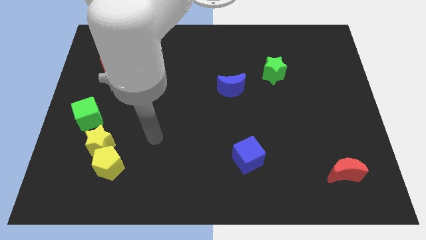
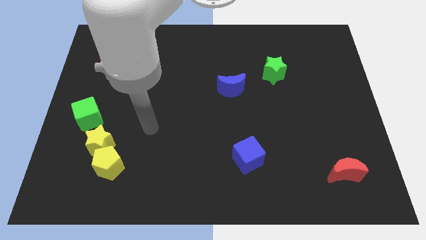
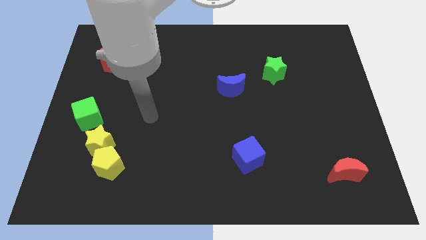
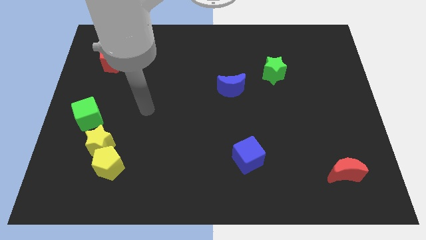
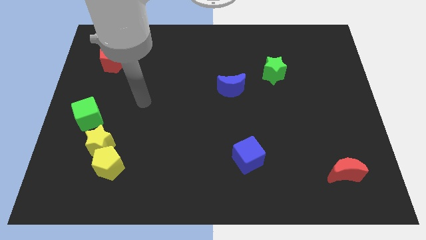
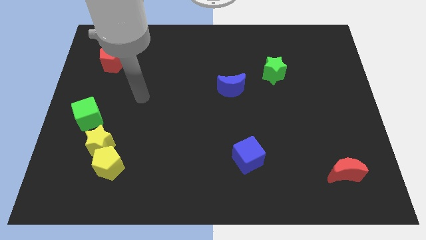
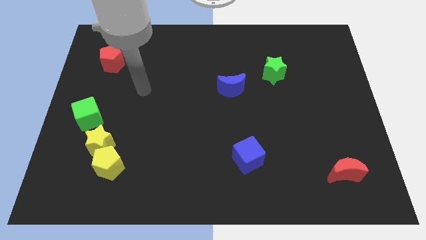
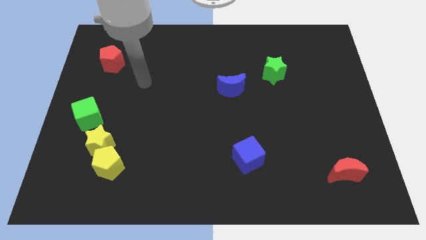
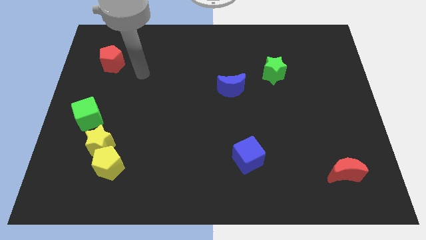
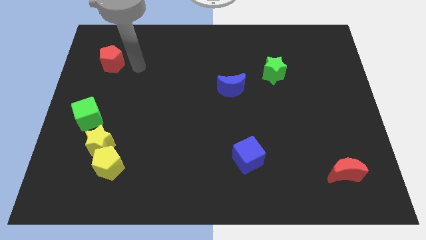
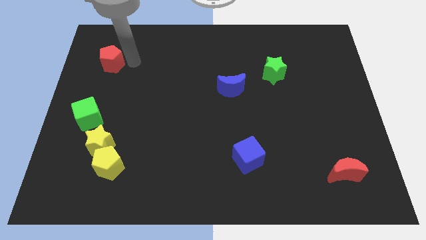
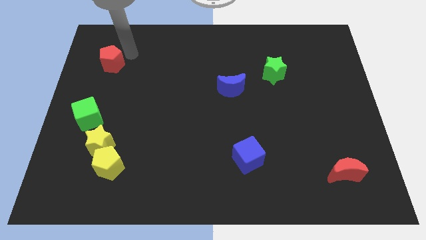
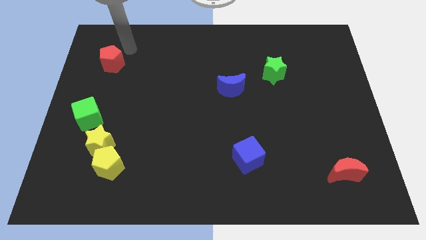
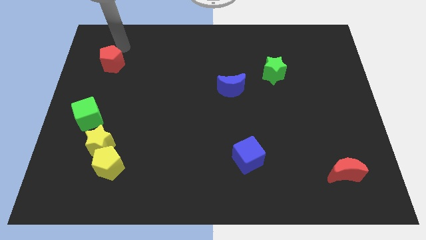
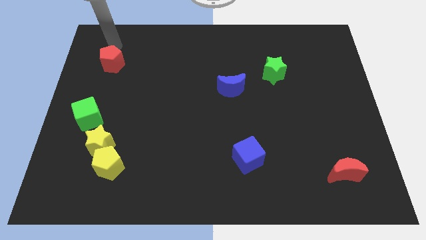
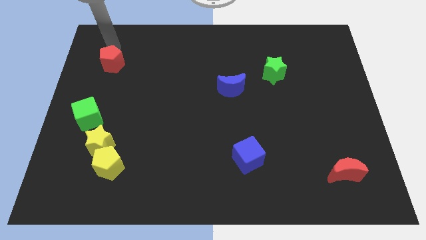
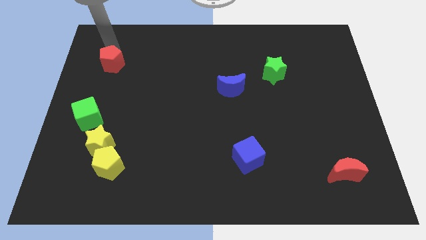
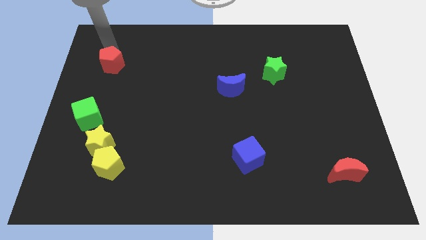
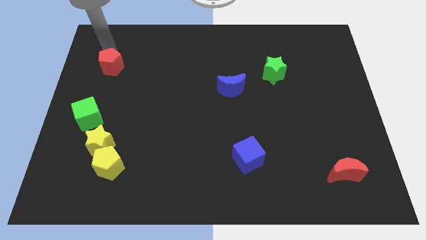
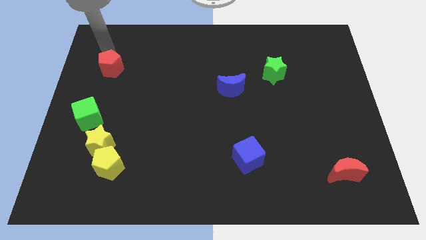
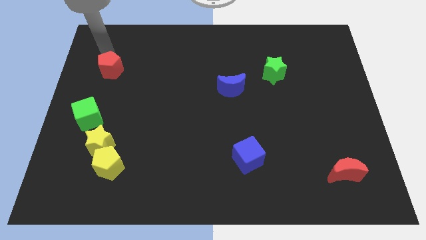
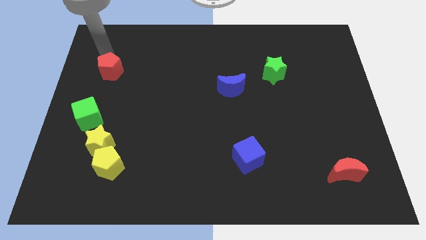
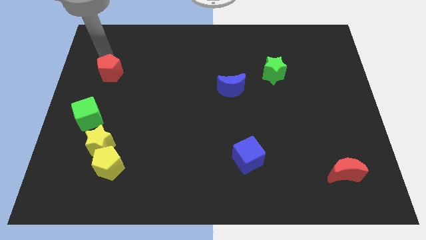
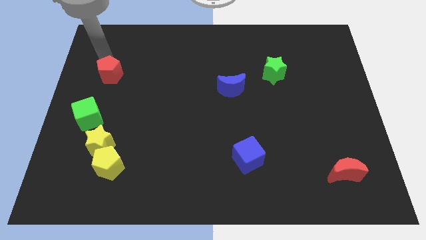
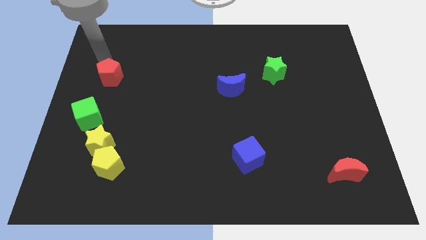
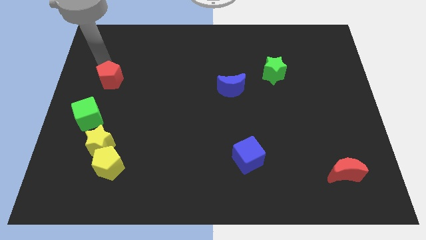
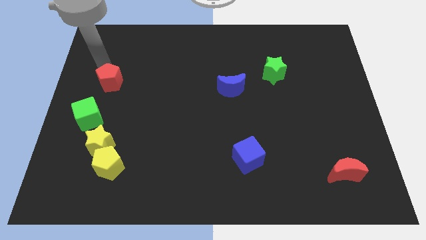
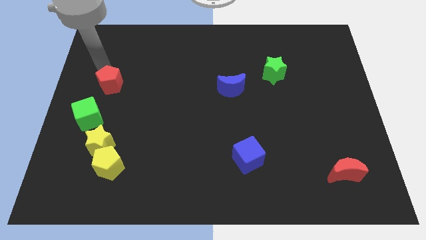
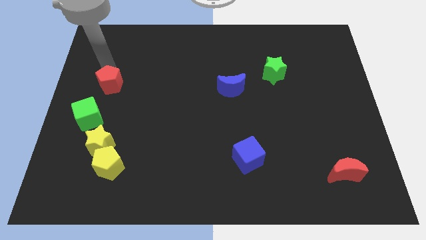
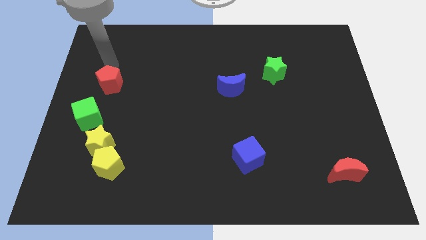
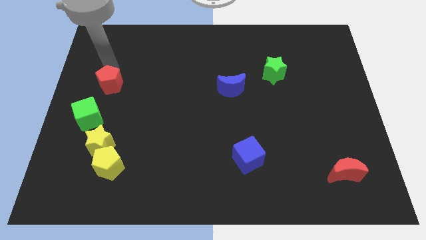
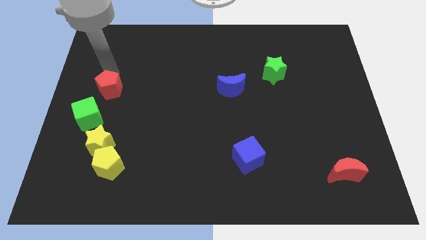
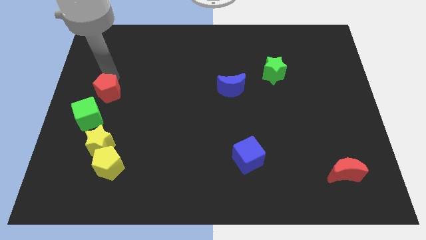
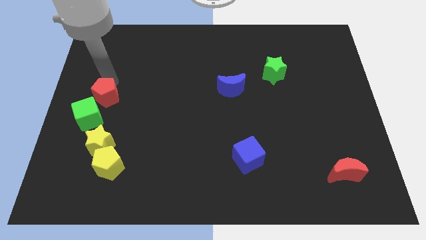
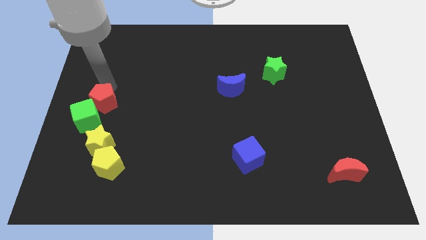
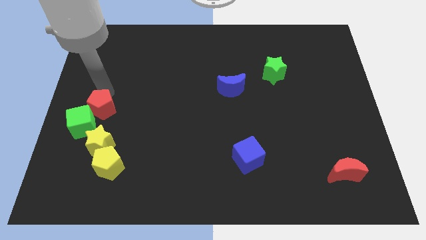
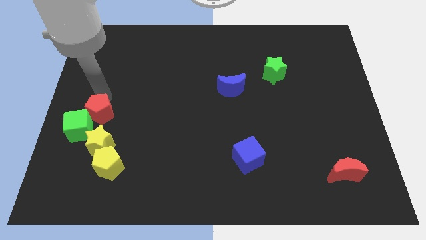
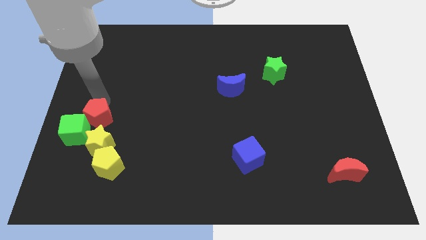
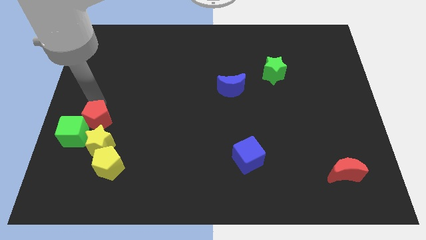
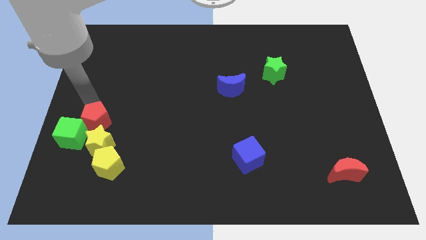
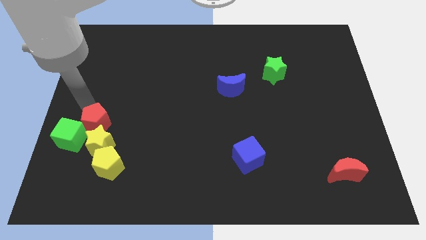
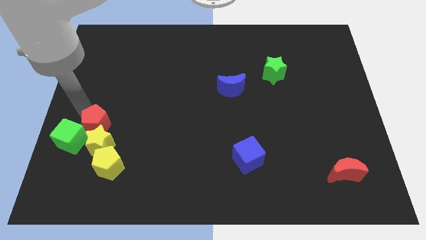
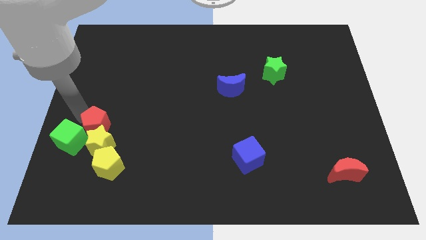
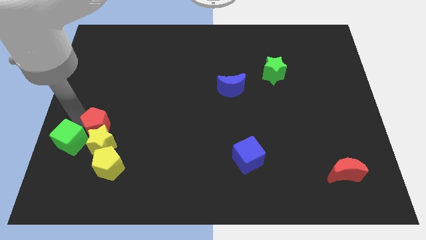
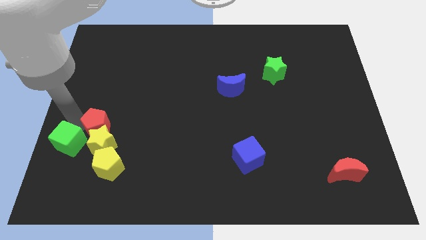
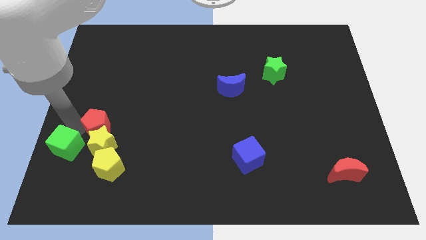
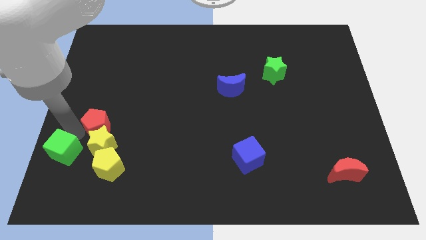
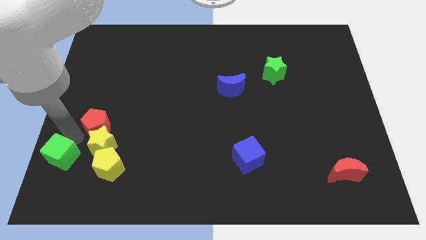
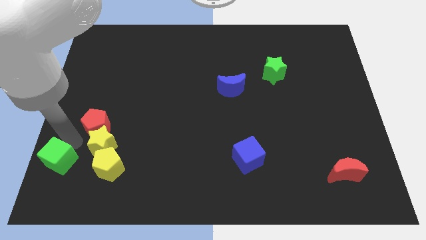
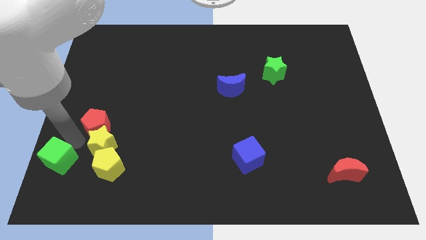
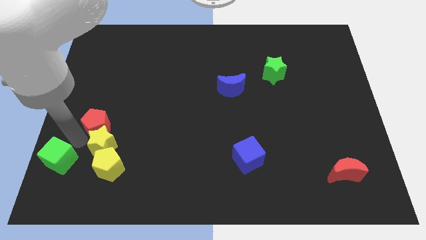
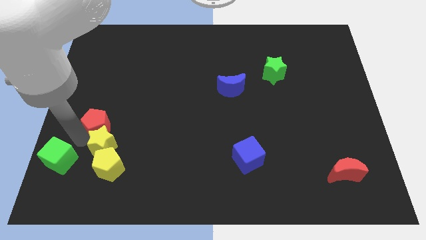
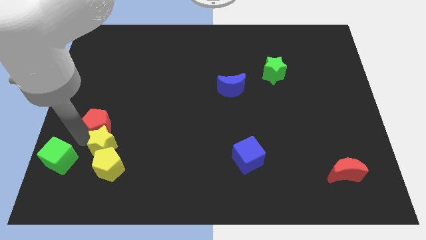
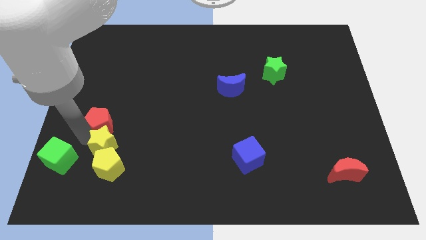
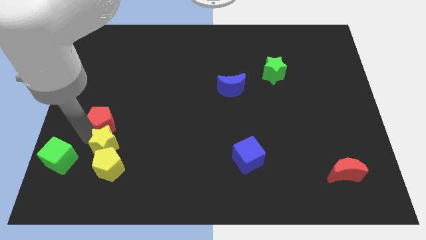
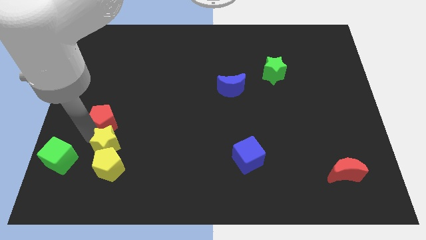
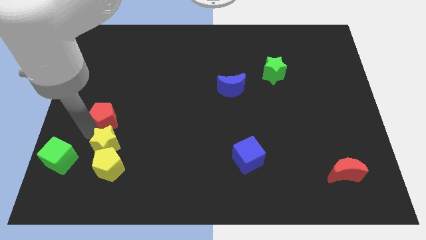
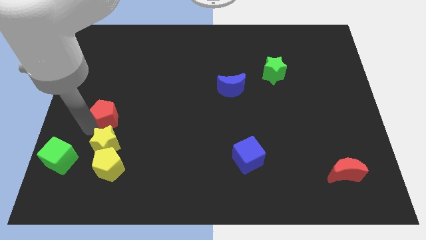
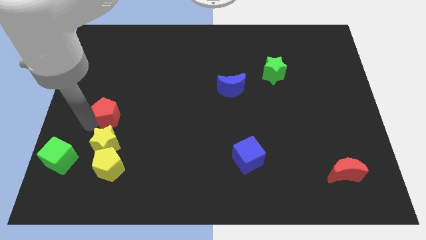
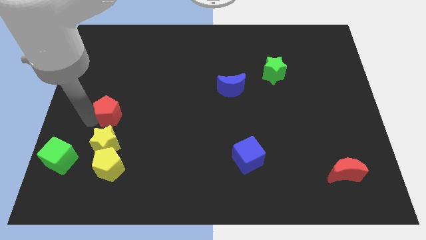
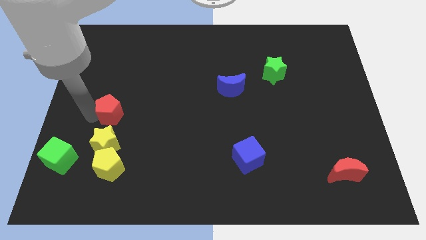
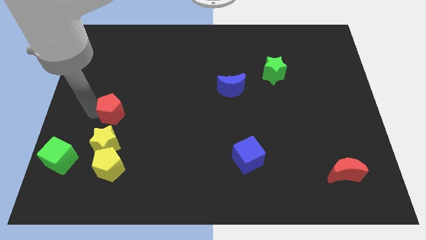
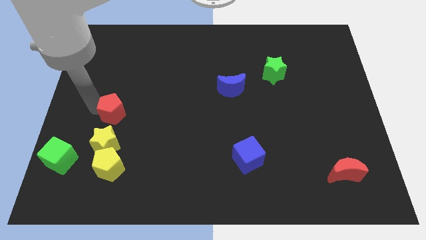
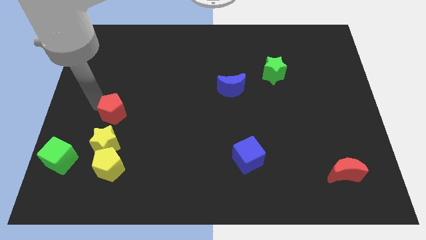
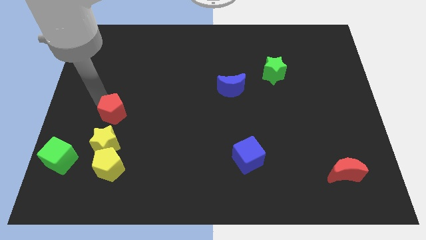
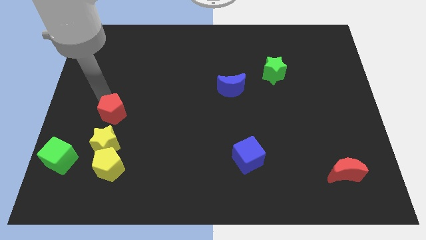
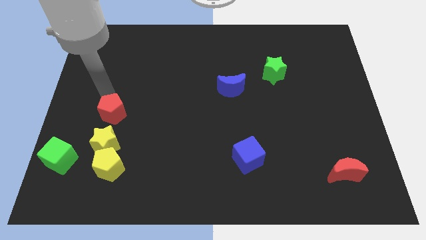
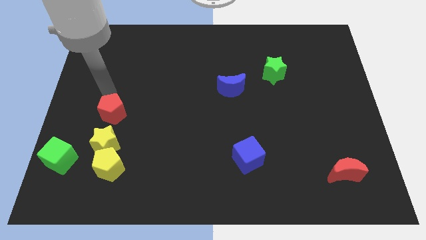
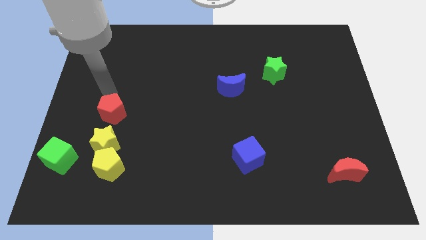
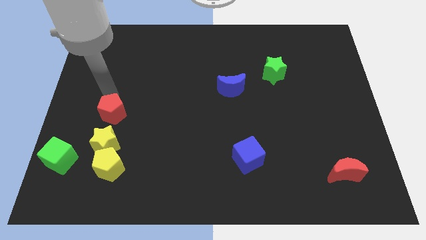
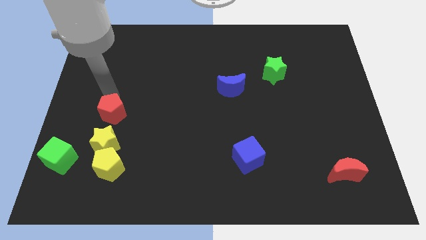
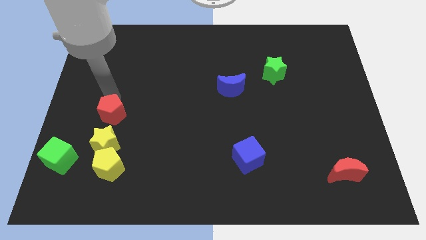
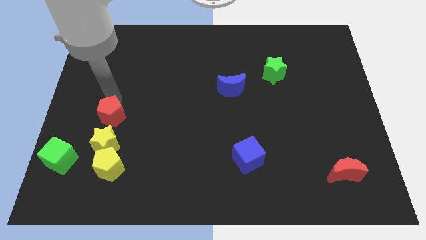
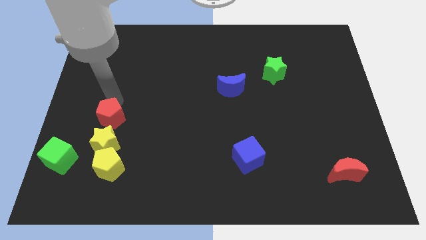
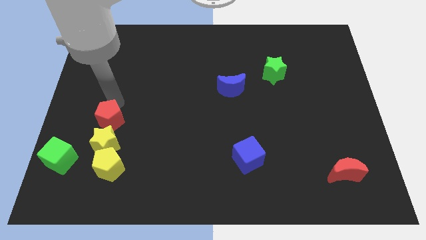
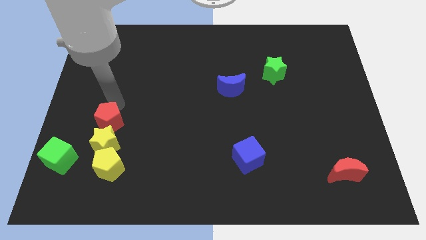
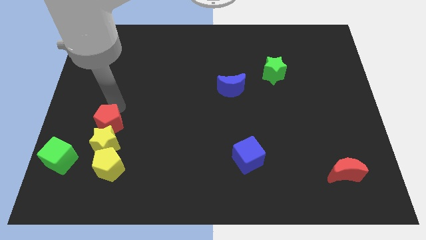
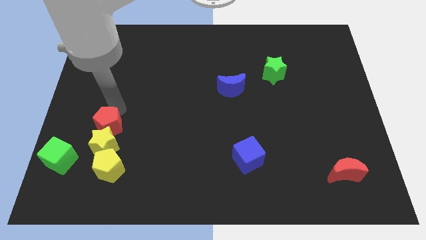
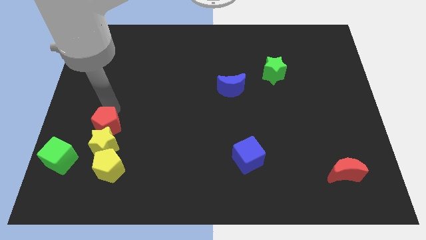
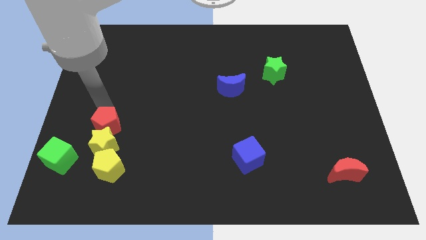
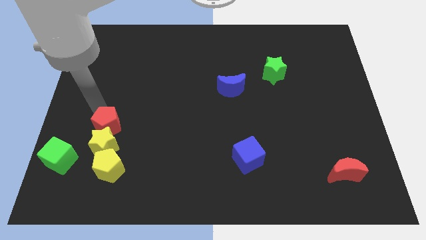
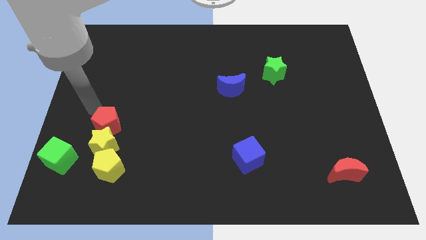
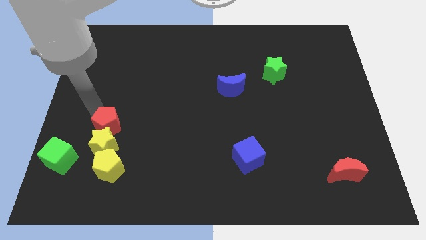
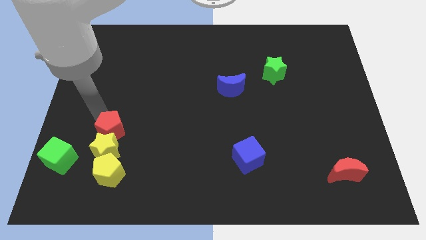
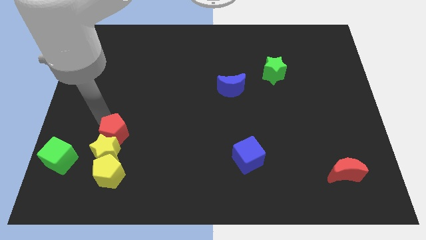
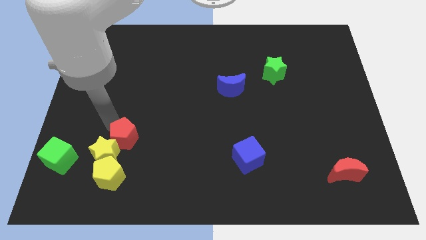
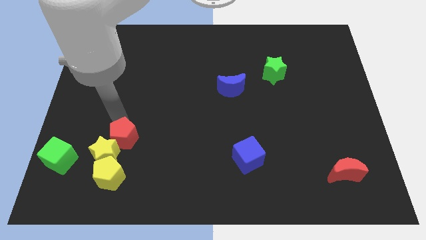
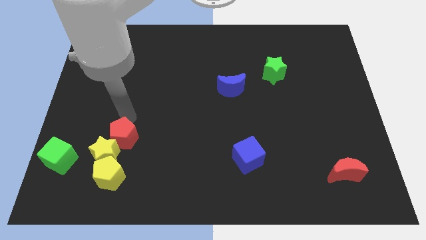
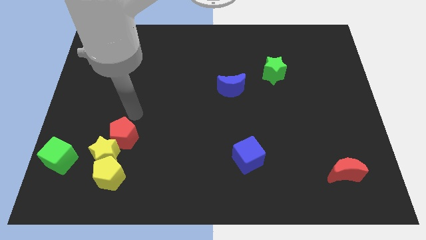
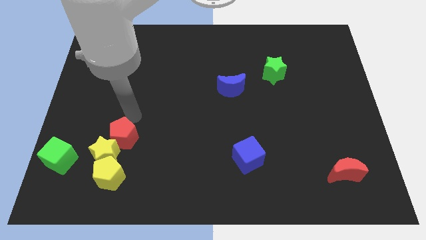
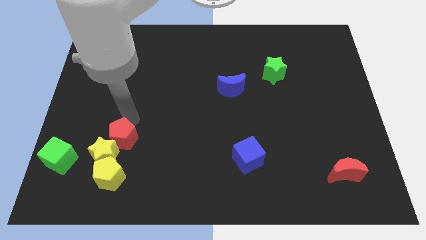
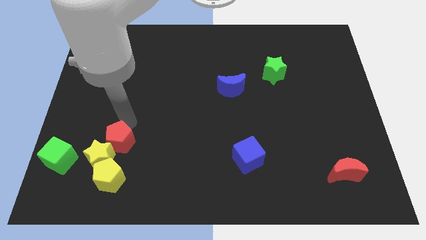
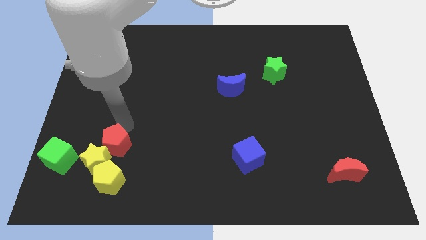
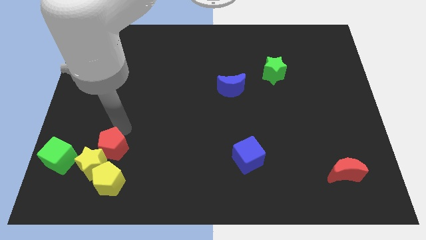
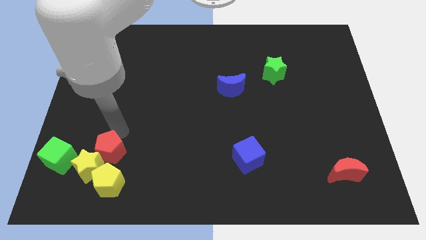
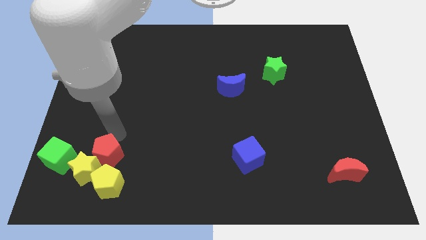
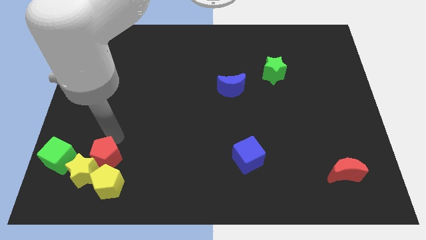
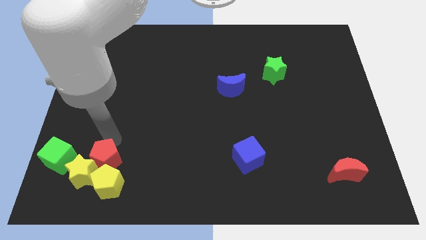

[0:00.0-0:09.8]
slide the red pentagon close to the yellow pentagon
